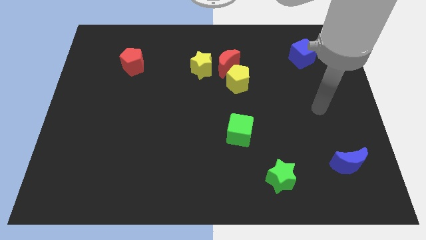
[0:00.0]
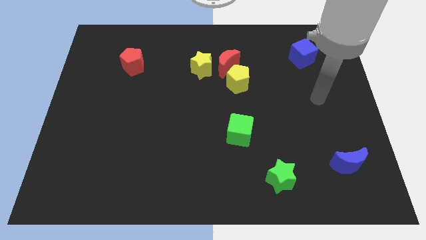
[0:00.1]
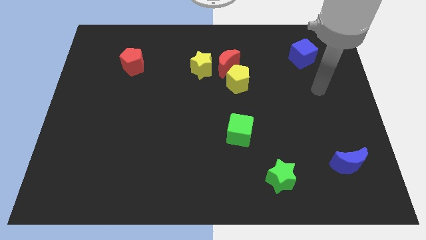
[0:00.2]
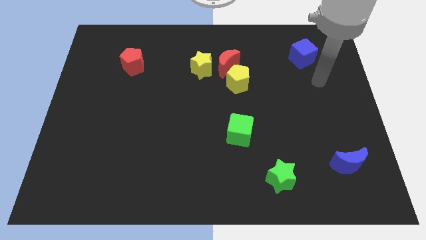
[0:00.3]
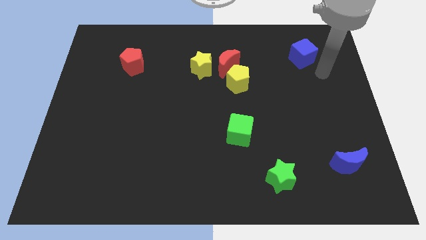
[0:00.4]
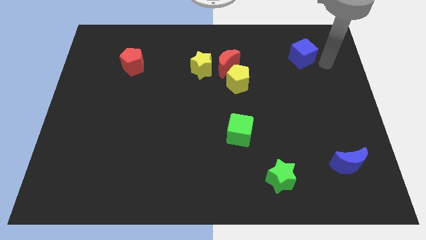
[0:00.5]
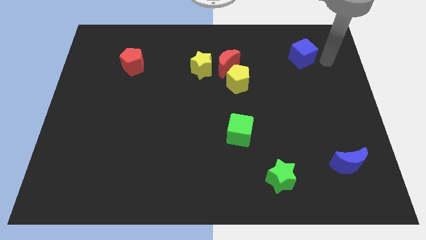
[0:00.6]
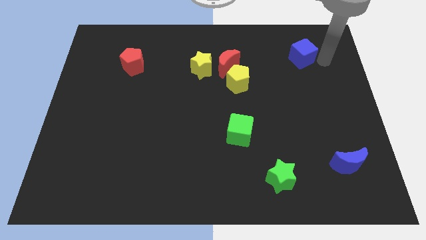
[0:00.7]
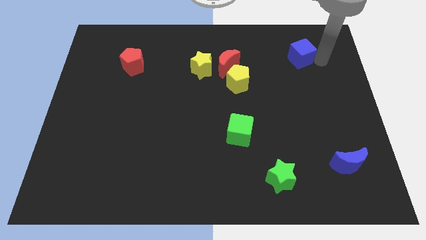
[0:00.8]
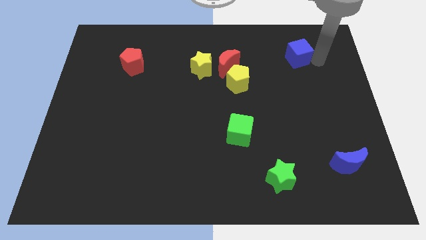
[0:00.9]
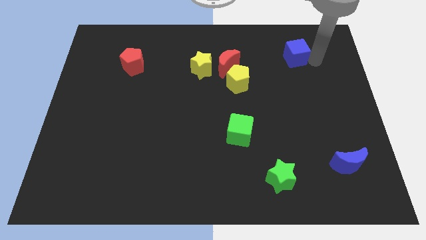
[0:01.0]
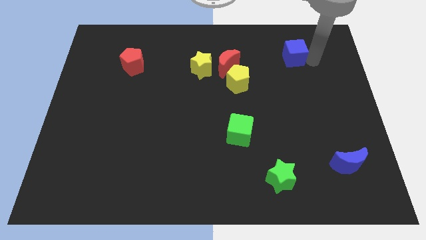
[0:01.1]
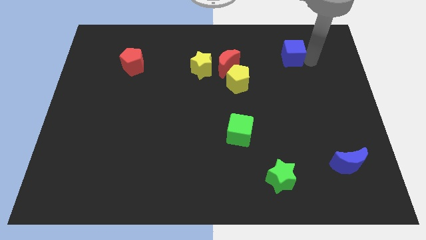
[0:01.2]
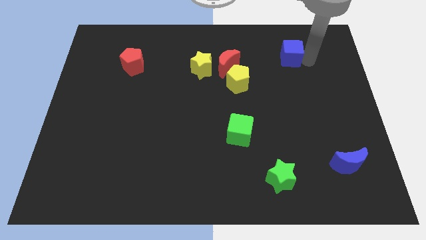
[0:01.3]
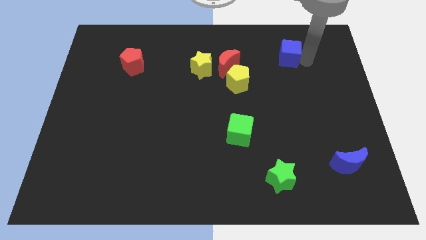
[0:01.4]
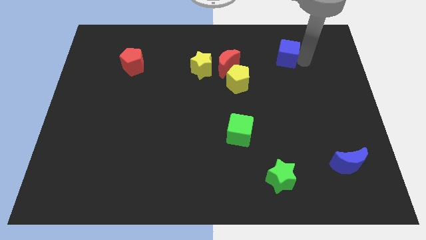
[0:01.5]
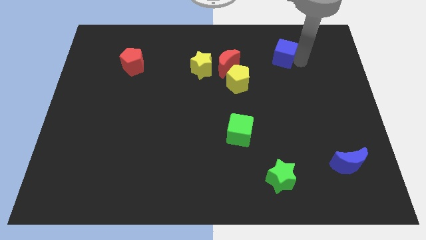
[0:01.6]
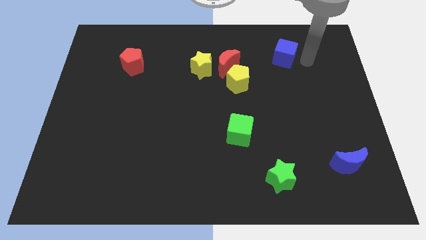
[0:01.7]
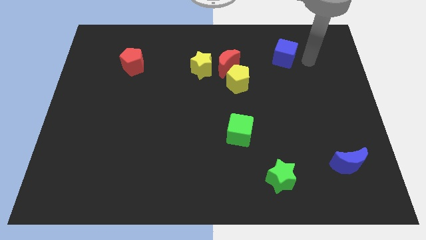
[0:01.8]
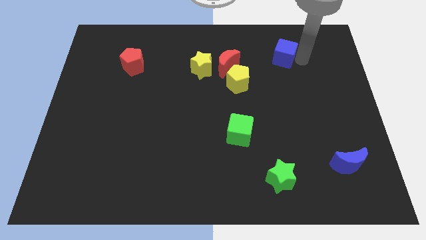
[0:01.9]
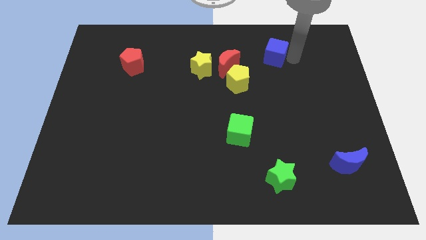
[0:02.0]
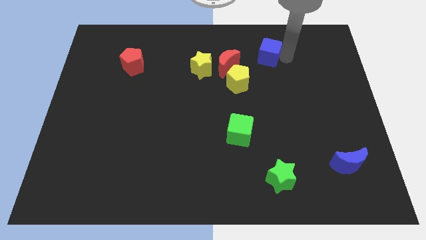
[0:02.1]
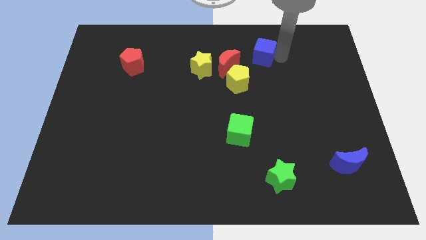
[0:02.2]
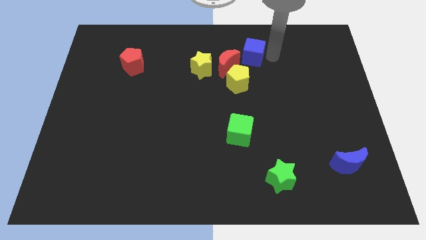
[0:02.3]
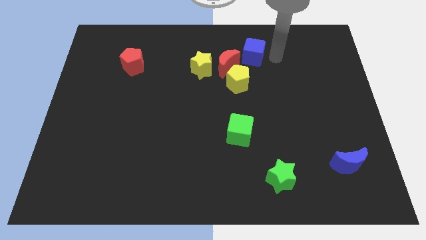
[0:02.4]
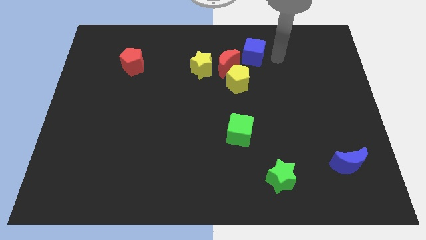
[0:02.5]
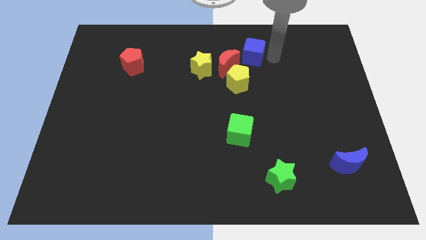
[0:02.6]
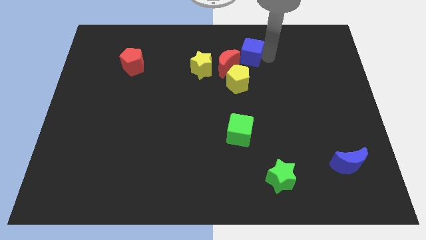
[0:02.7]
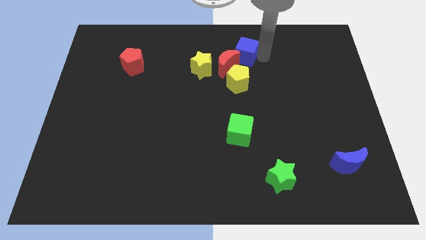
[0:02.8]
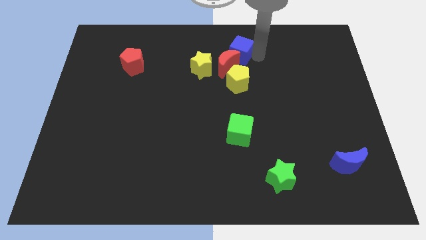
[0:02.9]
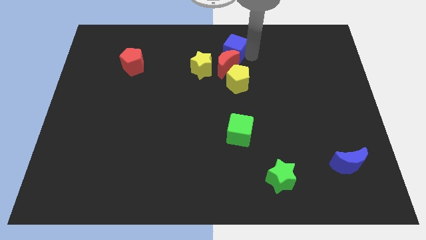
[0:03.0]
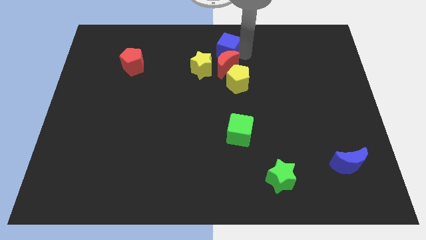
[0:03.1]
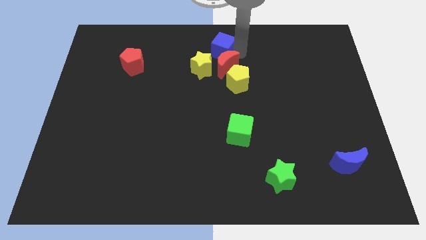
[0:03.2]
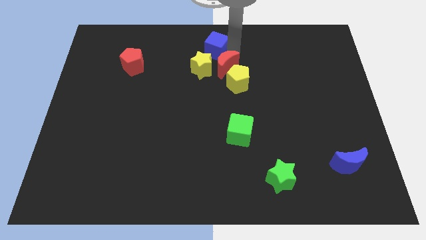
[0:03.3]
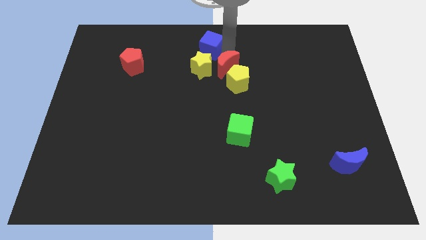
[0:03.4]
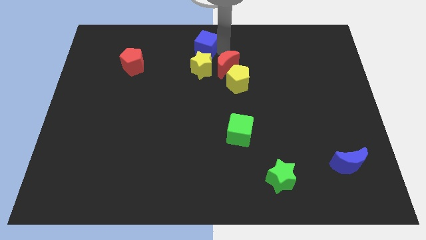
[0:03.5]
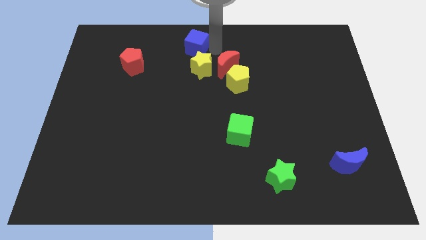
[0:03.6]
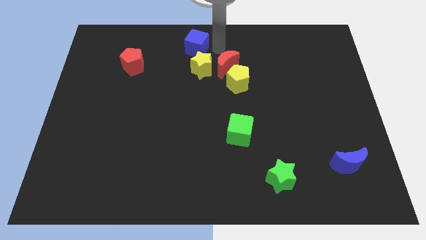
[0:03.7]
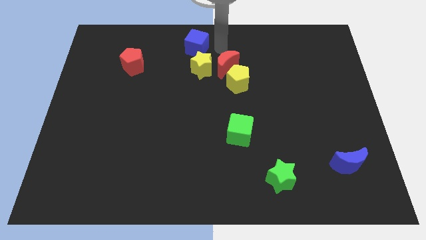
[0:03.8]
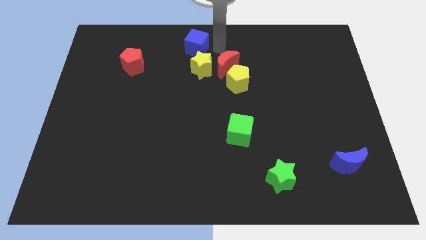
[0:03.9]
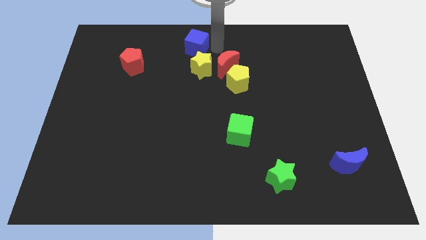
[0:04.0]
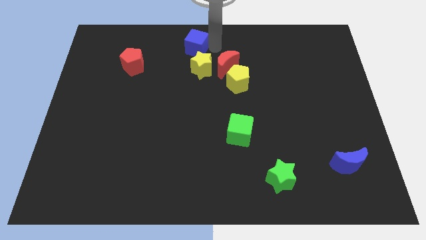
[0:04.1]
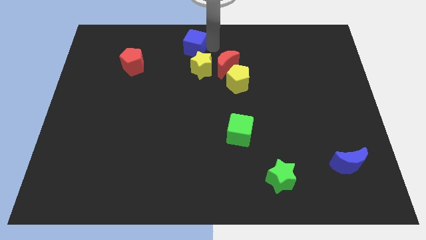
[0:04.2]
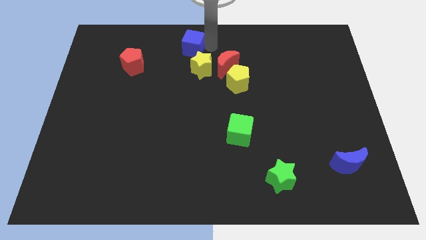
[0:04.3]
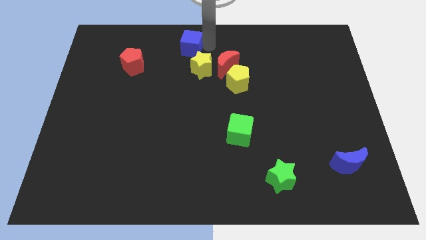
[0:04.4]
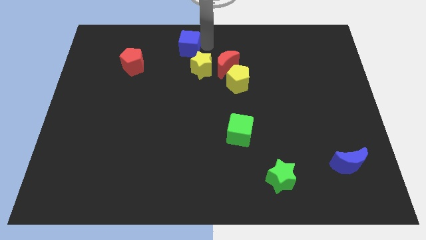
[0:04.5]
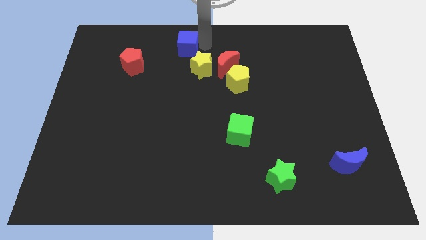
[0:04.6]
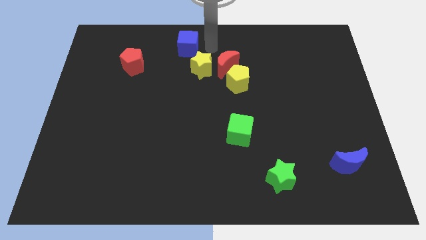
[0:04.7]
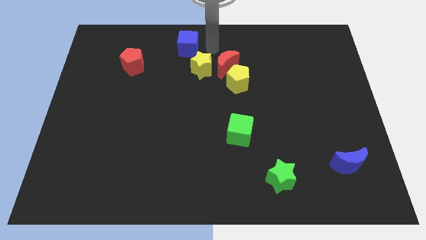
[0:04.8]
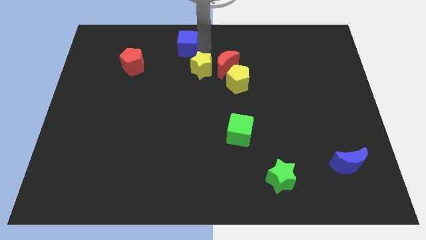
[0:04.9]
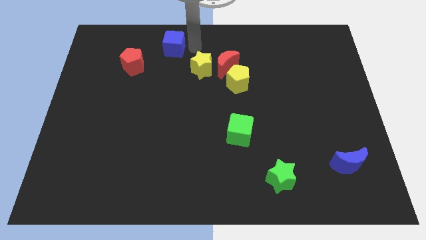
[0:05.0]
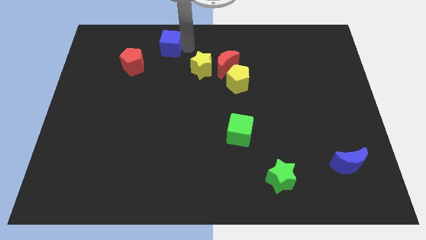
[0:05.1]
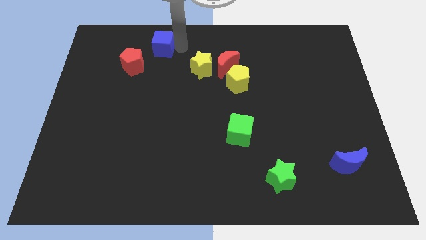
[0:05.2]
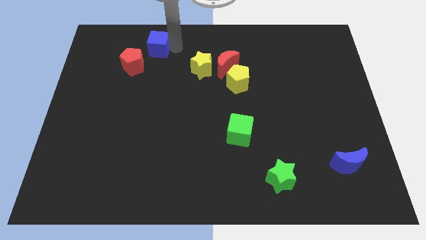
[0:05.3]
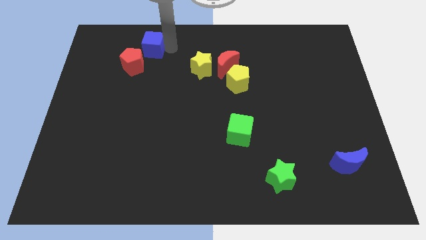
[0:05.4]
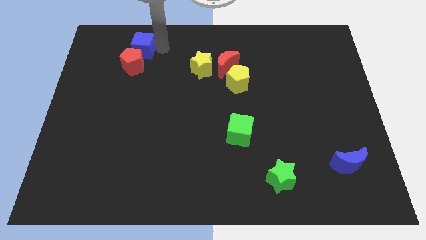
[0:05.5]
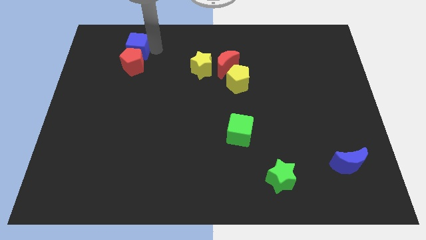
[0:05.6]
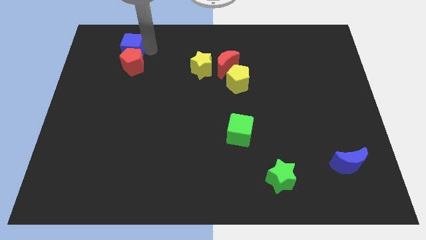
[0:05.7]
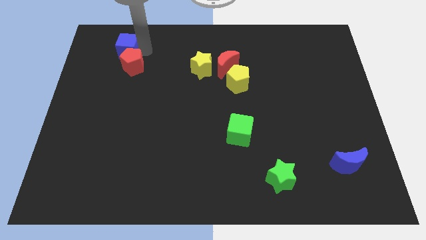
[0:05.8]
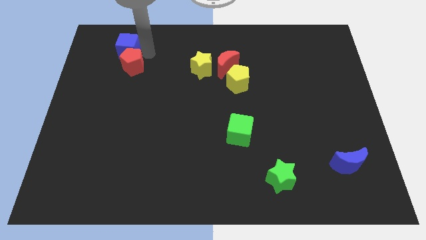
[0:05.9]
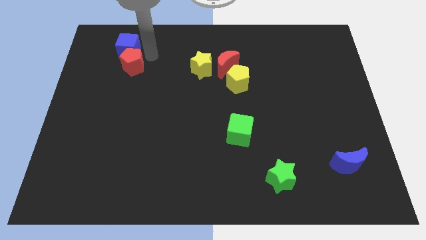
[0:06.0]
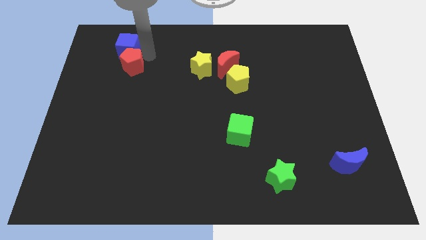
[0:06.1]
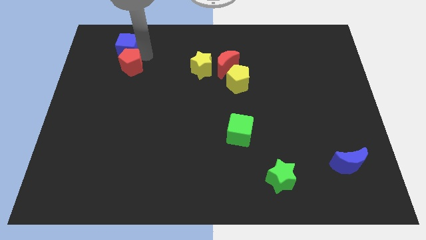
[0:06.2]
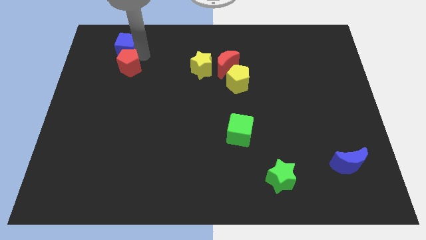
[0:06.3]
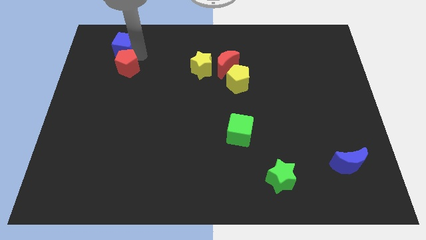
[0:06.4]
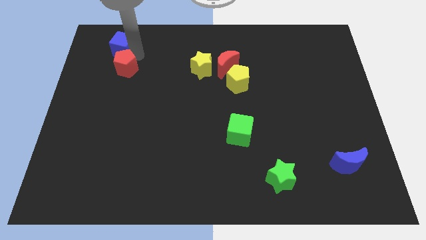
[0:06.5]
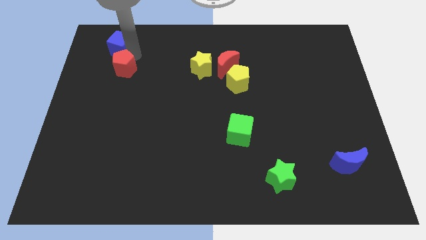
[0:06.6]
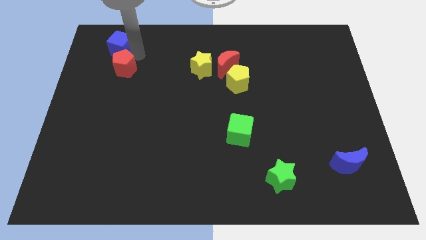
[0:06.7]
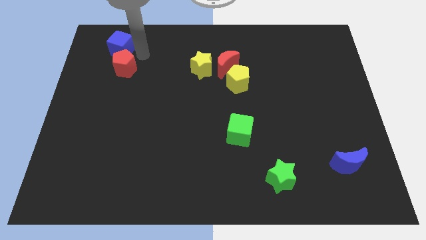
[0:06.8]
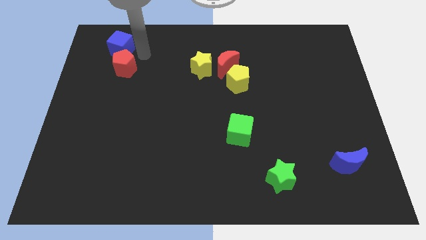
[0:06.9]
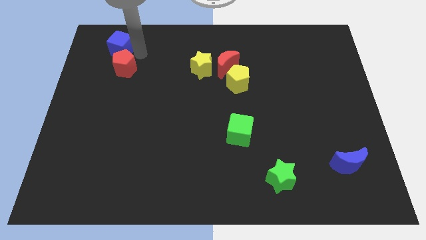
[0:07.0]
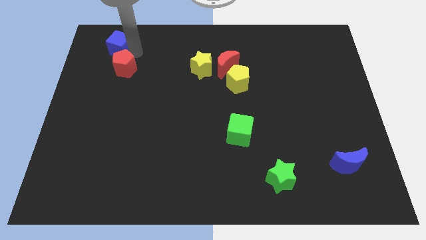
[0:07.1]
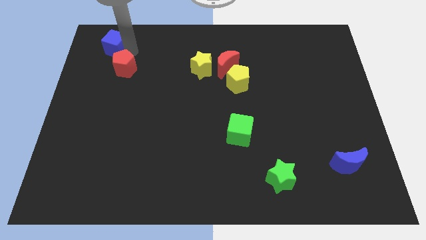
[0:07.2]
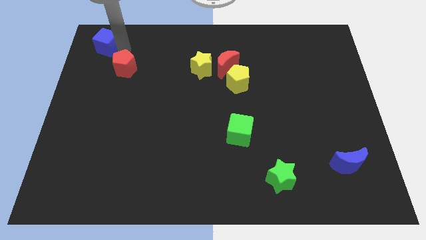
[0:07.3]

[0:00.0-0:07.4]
move the blue cube to the top left corner

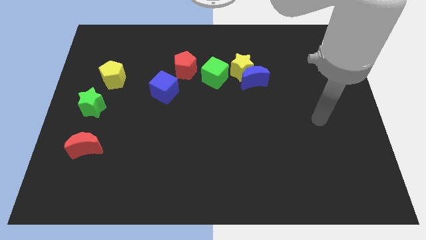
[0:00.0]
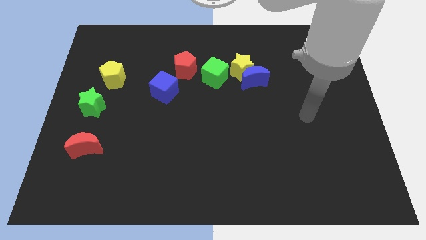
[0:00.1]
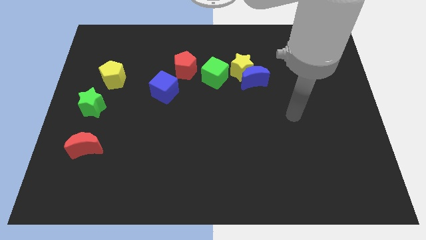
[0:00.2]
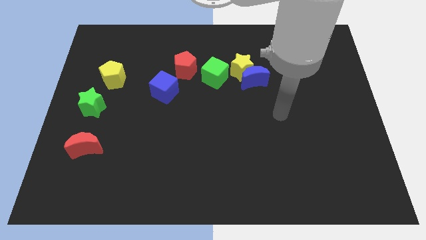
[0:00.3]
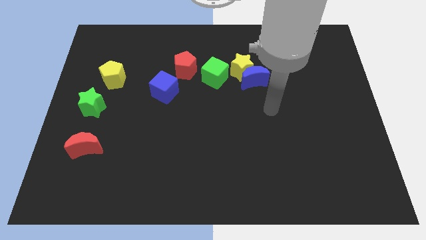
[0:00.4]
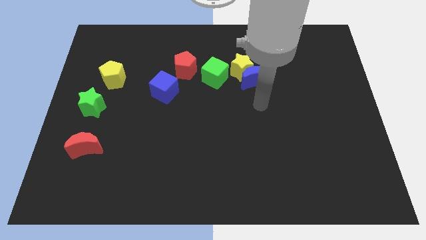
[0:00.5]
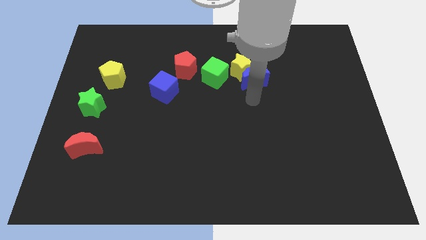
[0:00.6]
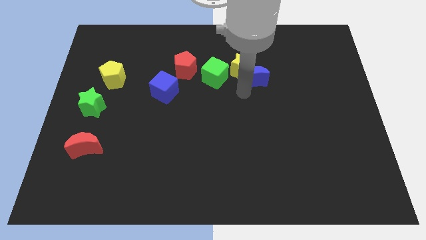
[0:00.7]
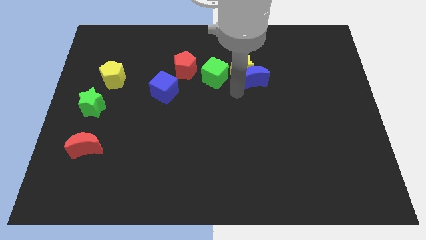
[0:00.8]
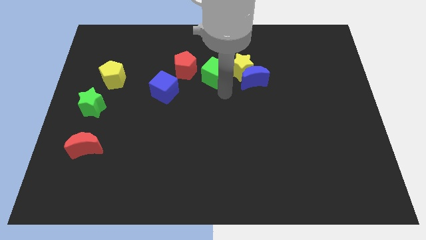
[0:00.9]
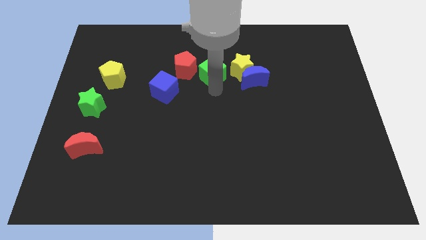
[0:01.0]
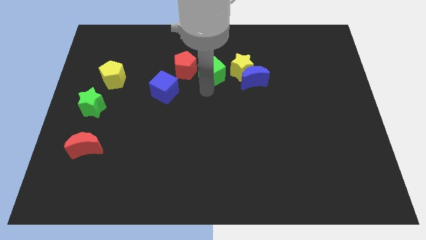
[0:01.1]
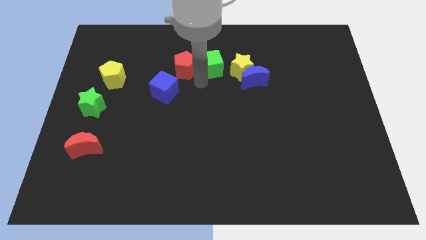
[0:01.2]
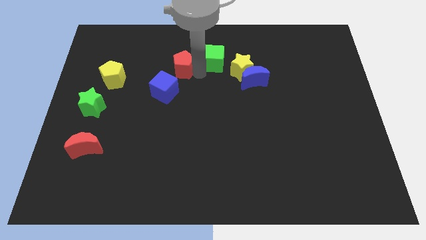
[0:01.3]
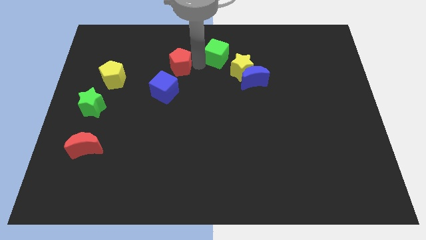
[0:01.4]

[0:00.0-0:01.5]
put the green cube to the top side
